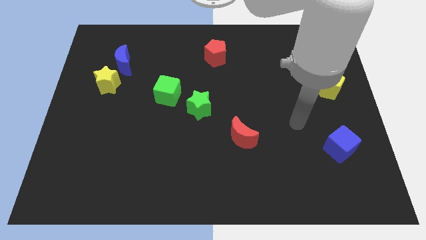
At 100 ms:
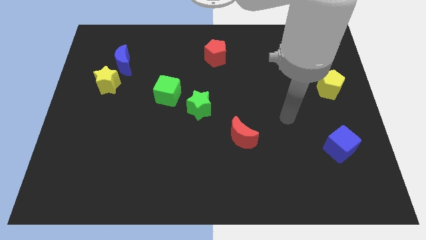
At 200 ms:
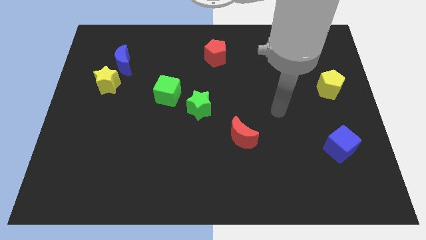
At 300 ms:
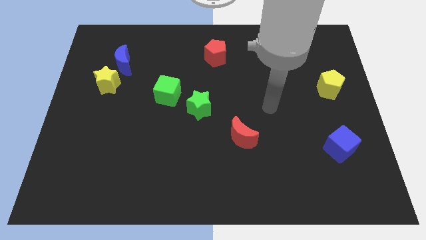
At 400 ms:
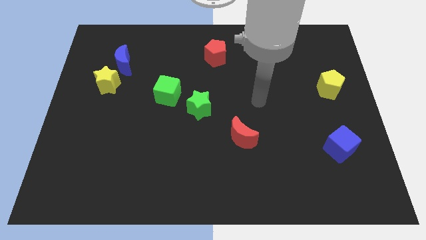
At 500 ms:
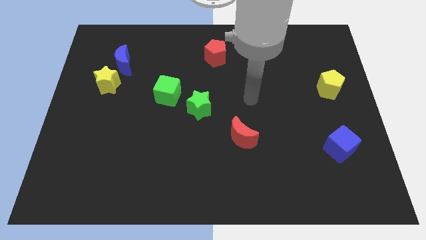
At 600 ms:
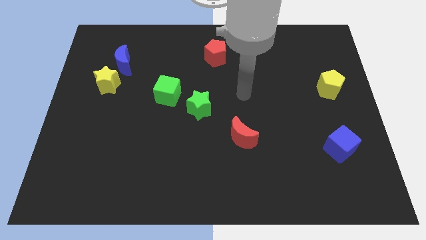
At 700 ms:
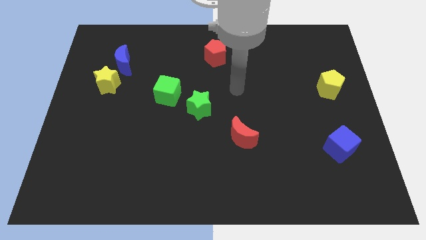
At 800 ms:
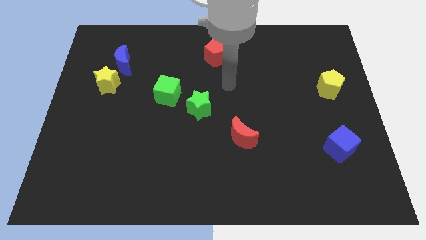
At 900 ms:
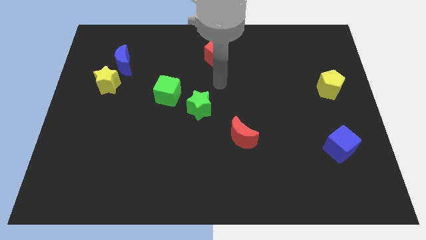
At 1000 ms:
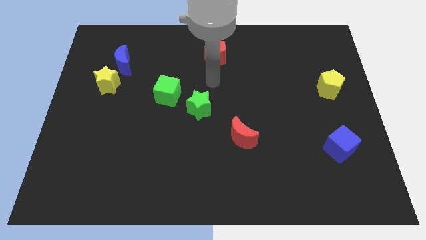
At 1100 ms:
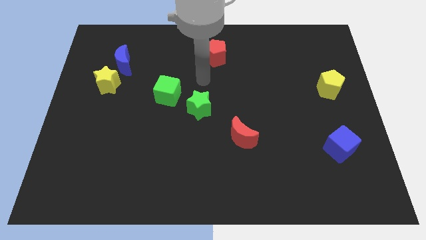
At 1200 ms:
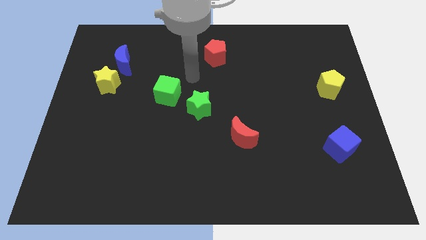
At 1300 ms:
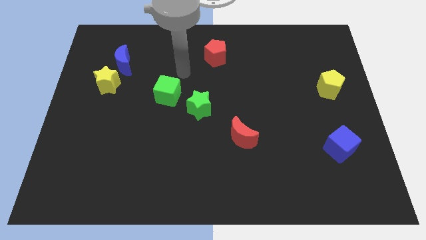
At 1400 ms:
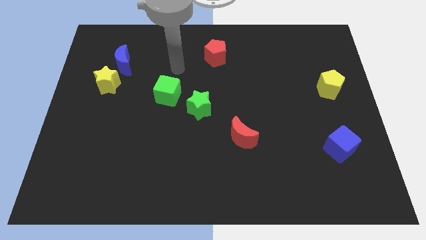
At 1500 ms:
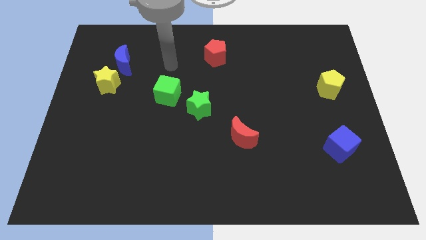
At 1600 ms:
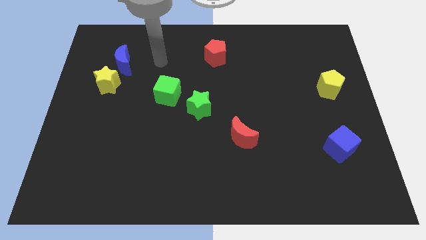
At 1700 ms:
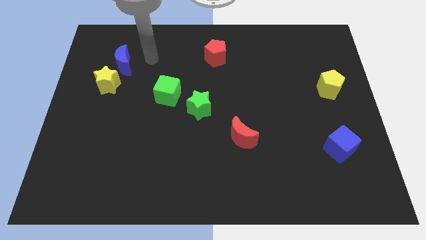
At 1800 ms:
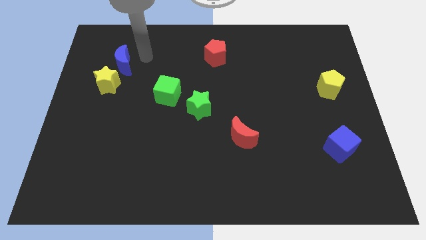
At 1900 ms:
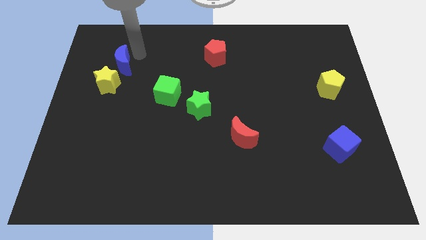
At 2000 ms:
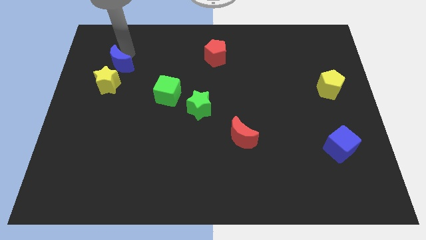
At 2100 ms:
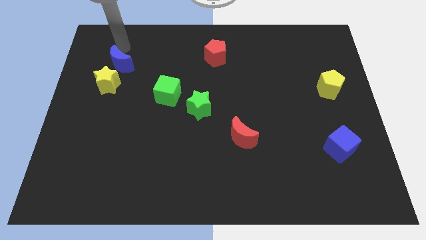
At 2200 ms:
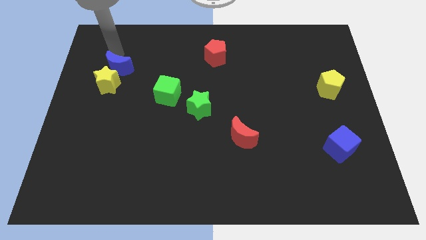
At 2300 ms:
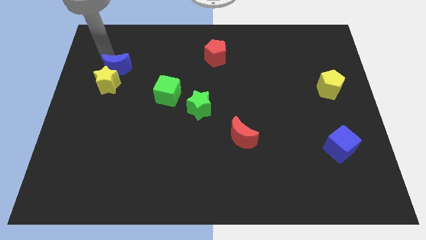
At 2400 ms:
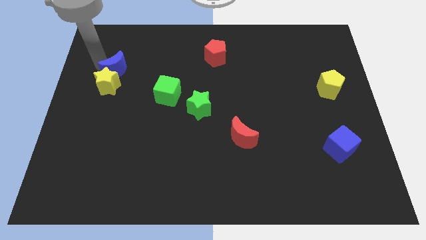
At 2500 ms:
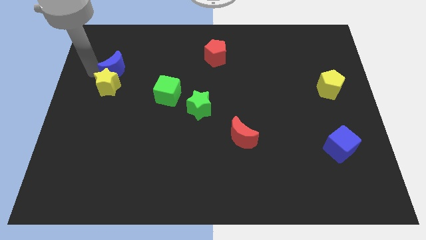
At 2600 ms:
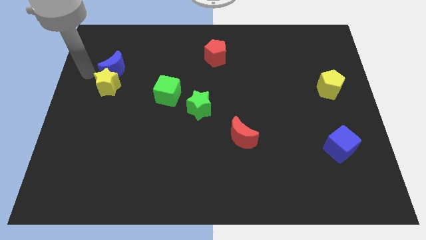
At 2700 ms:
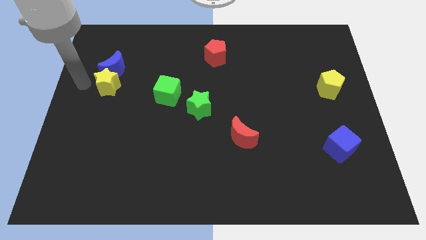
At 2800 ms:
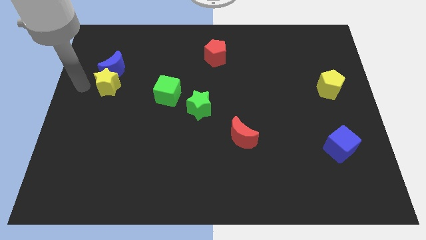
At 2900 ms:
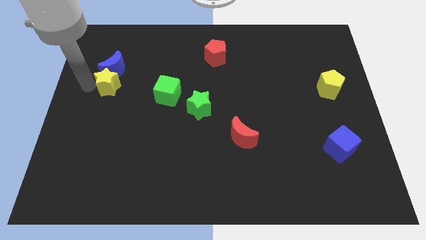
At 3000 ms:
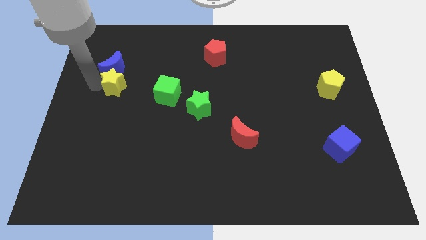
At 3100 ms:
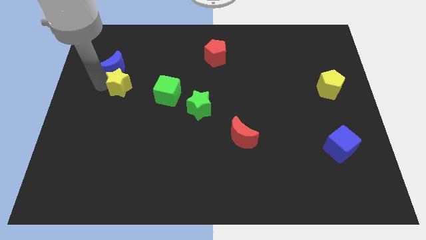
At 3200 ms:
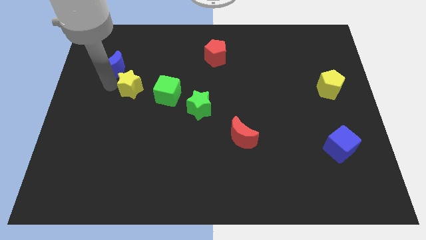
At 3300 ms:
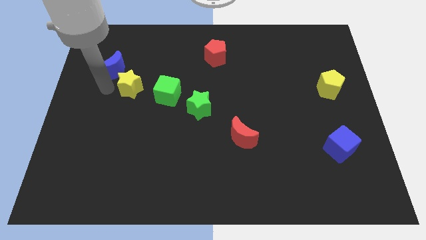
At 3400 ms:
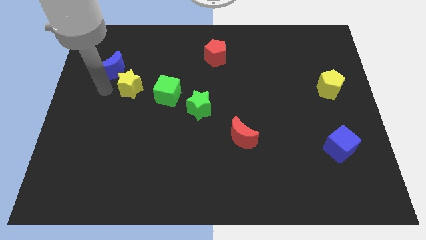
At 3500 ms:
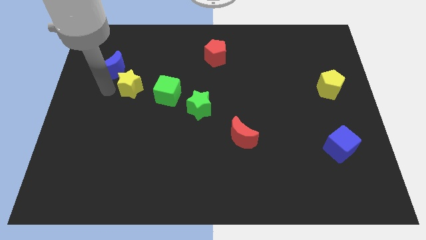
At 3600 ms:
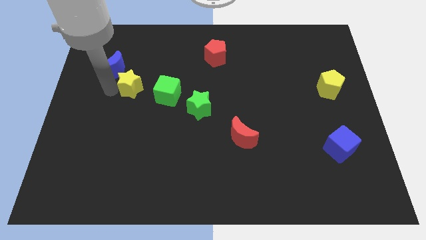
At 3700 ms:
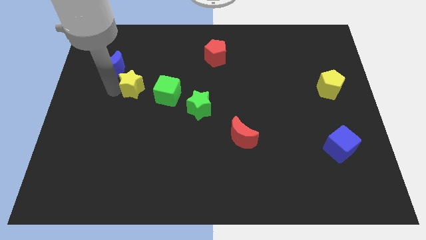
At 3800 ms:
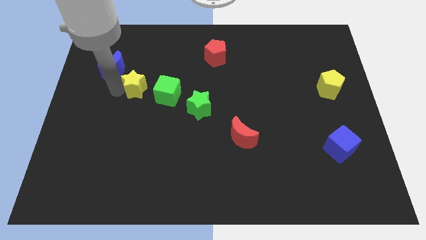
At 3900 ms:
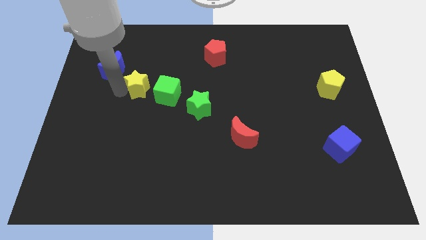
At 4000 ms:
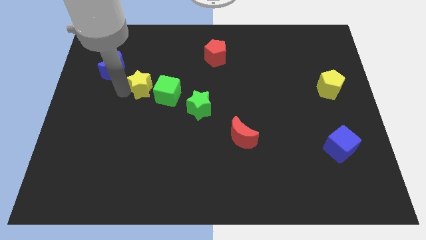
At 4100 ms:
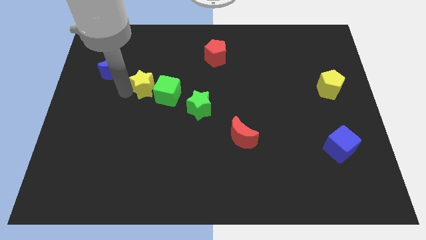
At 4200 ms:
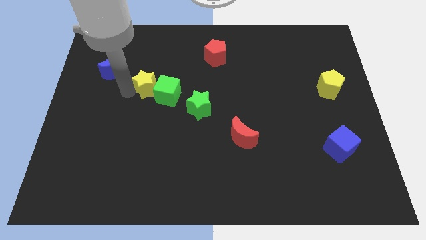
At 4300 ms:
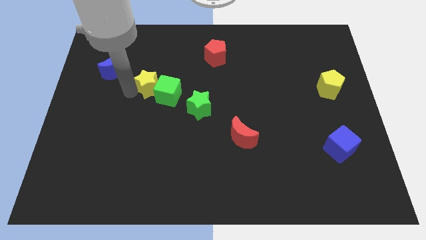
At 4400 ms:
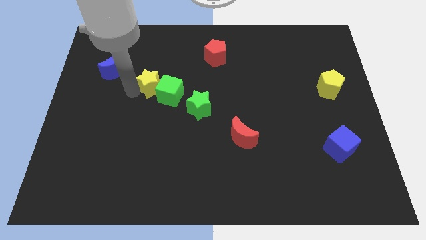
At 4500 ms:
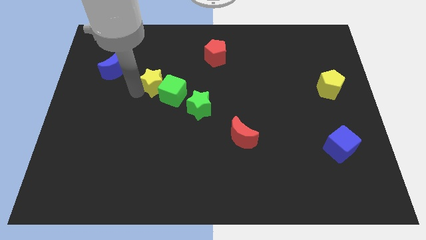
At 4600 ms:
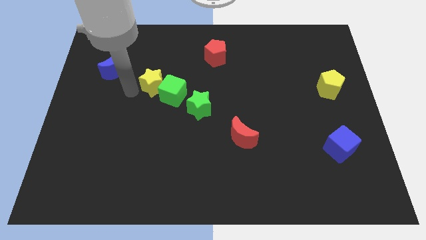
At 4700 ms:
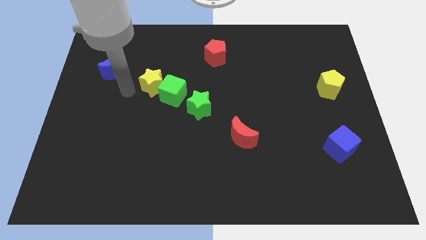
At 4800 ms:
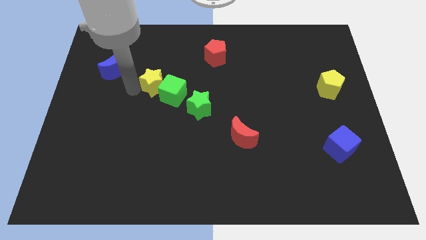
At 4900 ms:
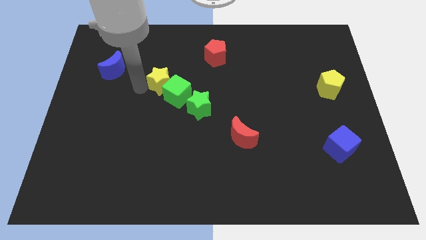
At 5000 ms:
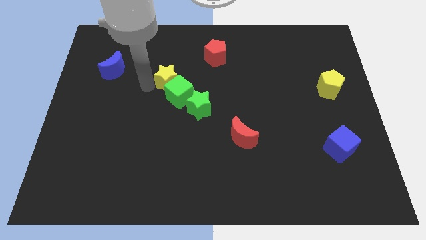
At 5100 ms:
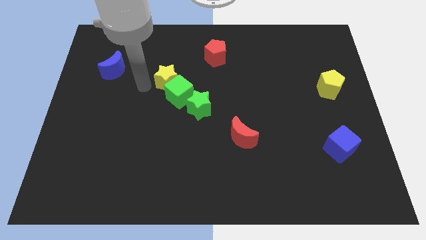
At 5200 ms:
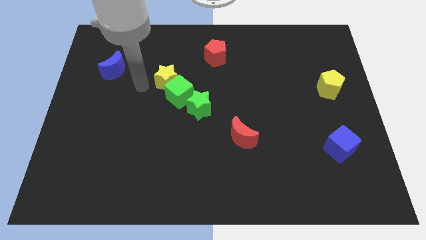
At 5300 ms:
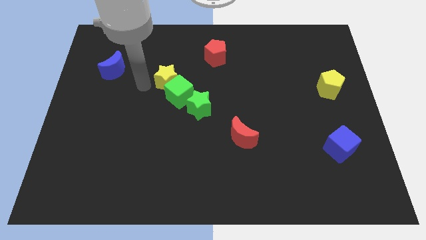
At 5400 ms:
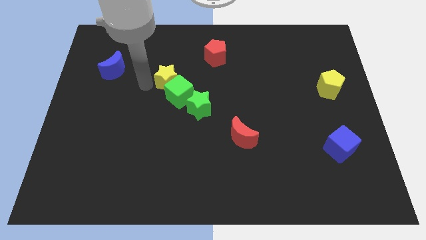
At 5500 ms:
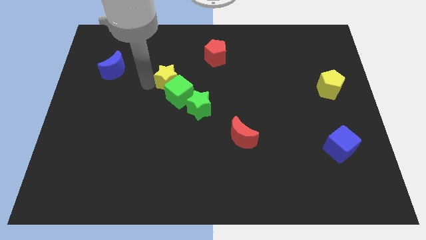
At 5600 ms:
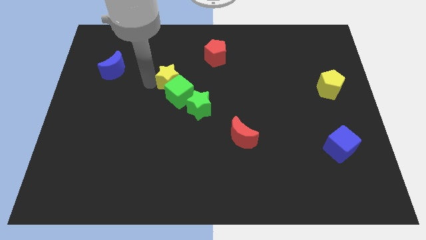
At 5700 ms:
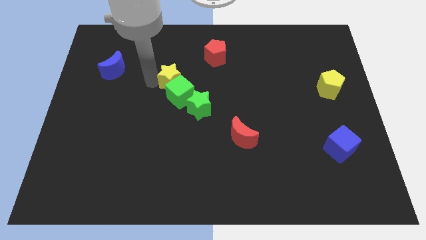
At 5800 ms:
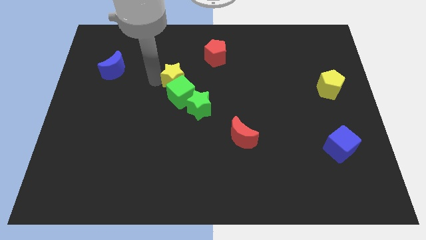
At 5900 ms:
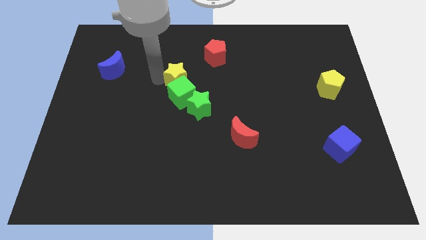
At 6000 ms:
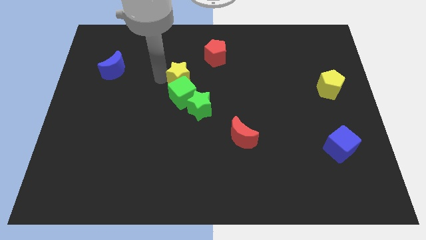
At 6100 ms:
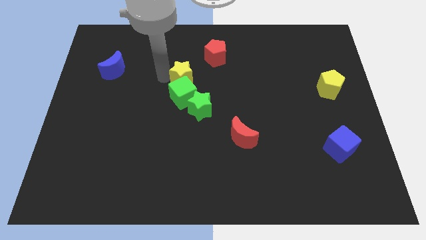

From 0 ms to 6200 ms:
put the yellow star to the top side of the green star

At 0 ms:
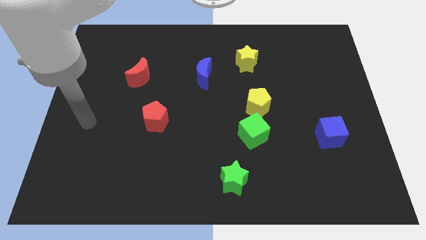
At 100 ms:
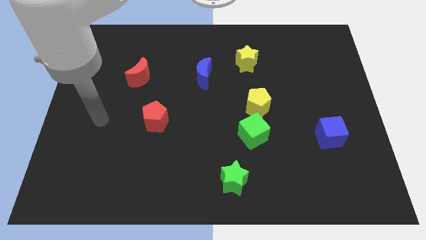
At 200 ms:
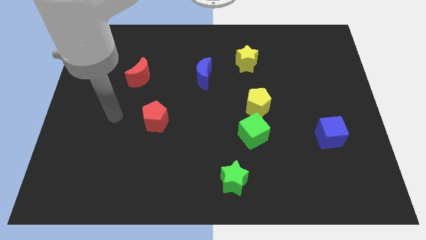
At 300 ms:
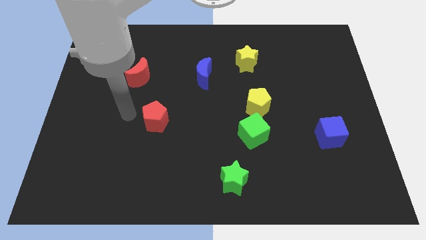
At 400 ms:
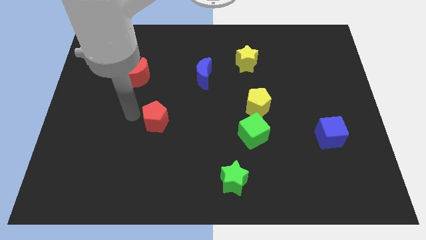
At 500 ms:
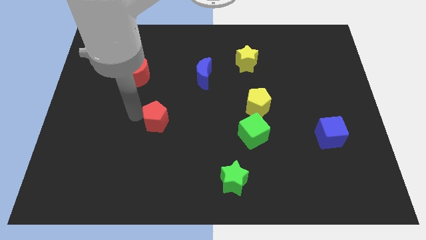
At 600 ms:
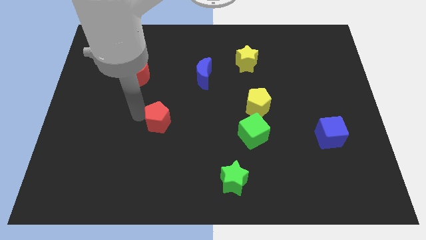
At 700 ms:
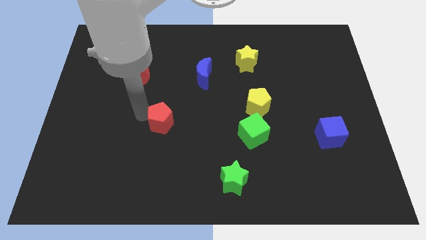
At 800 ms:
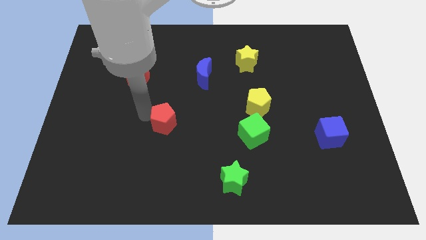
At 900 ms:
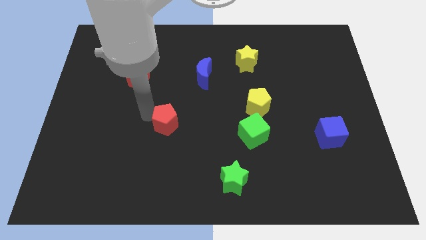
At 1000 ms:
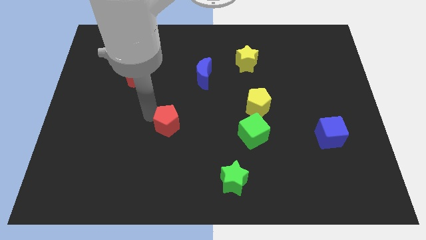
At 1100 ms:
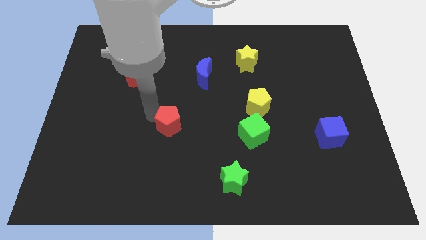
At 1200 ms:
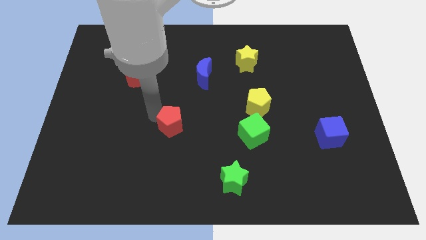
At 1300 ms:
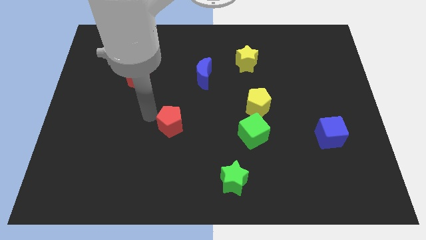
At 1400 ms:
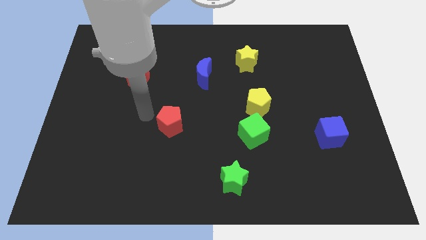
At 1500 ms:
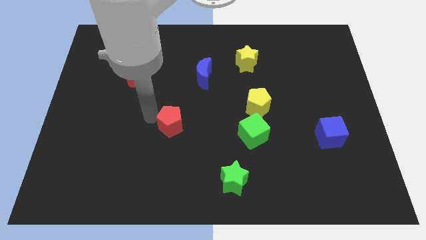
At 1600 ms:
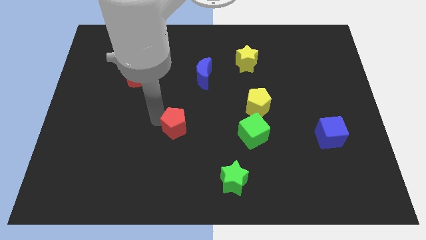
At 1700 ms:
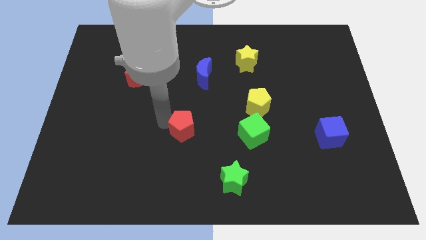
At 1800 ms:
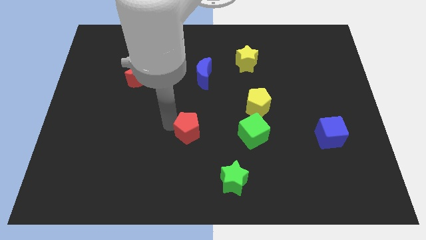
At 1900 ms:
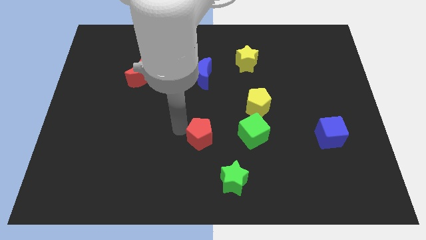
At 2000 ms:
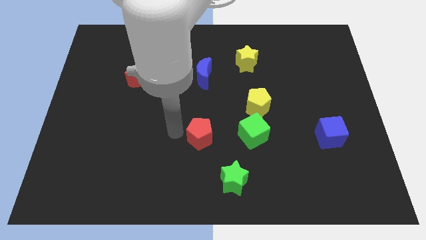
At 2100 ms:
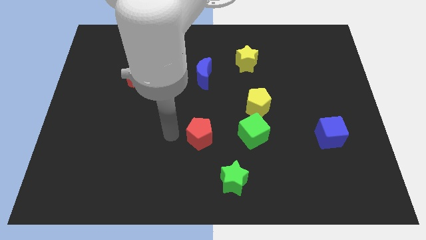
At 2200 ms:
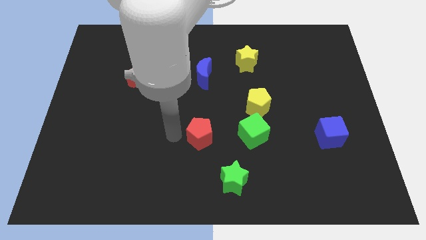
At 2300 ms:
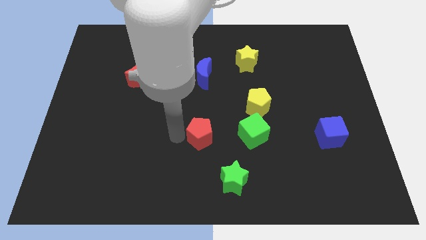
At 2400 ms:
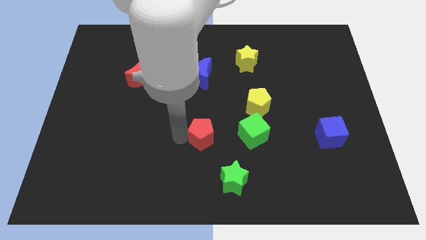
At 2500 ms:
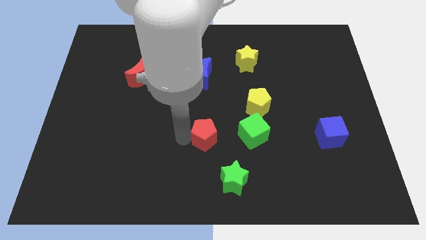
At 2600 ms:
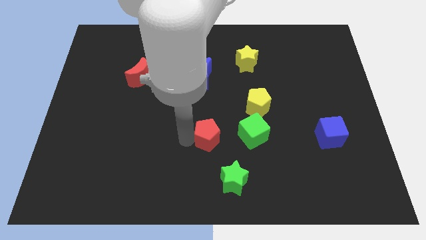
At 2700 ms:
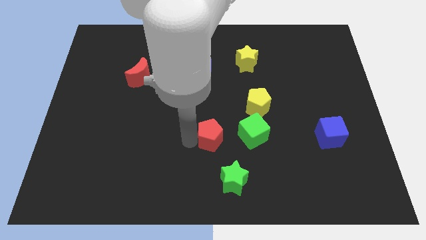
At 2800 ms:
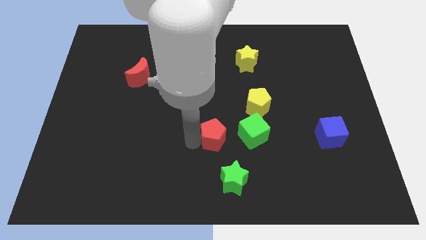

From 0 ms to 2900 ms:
put the red pentagon above the green star
